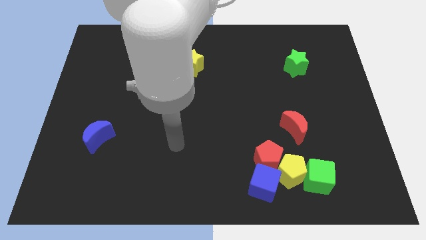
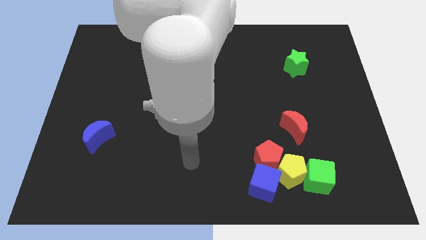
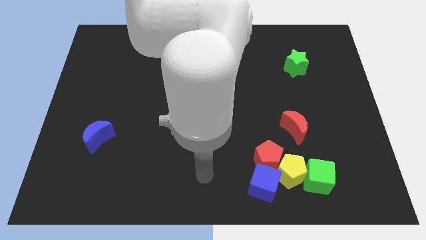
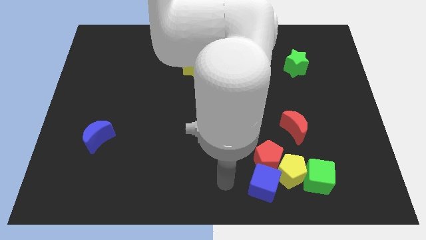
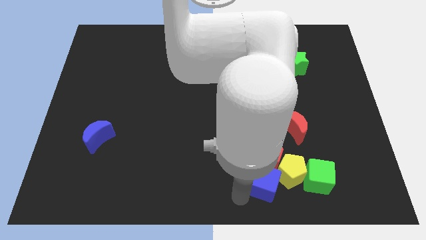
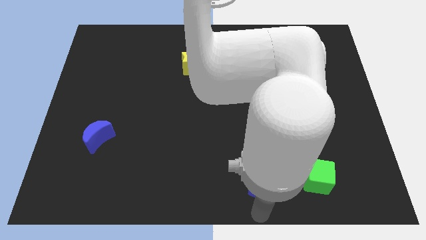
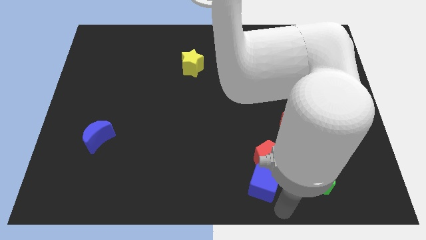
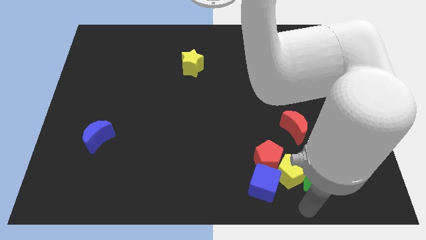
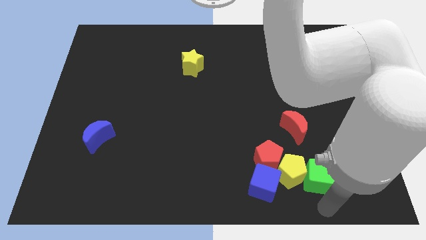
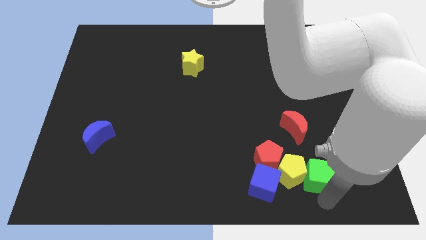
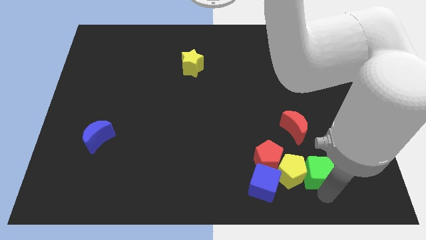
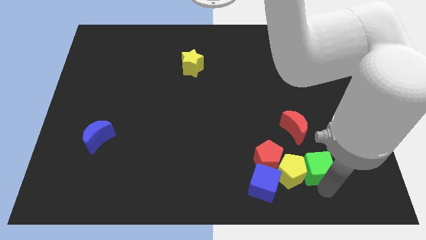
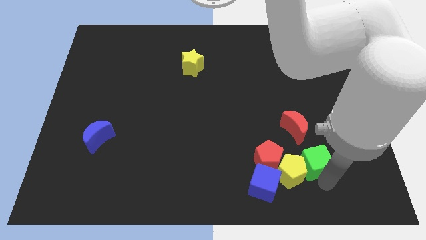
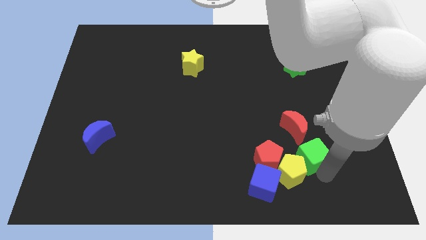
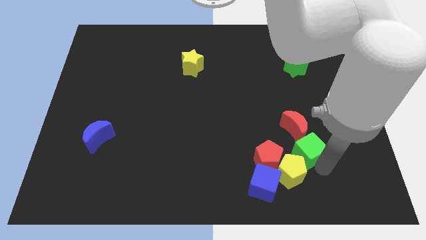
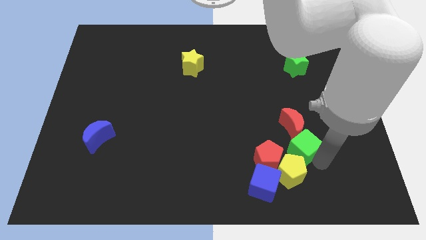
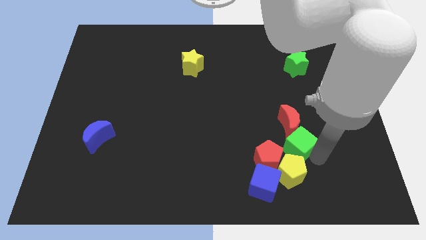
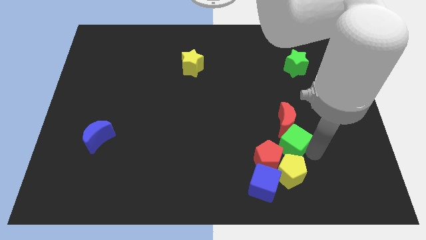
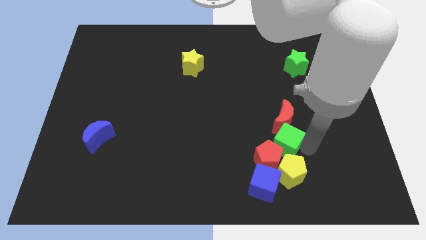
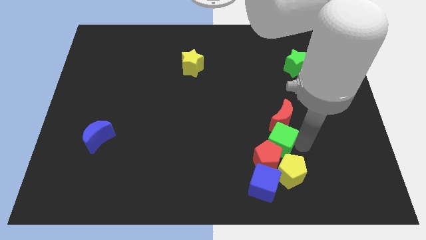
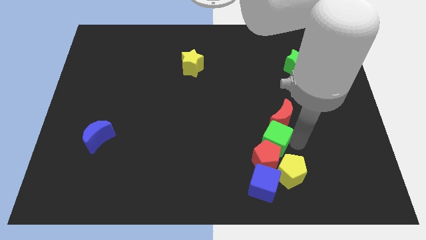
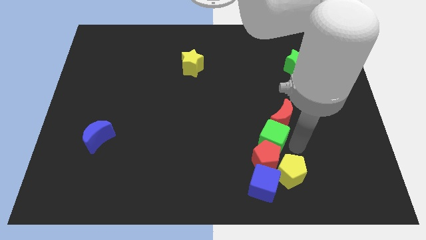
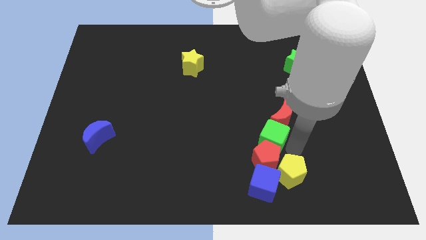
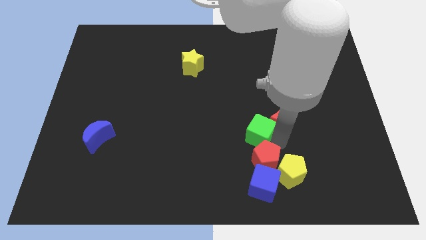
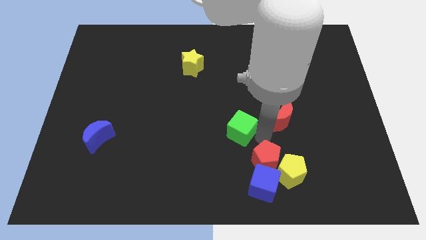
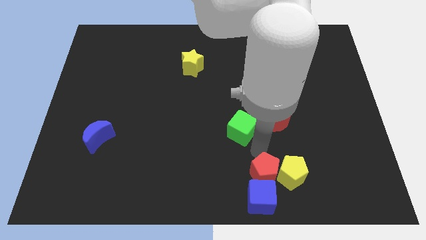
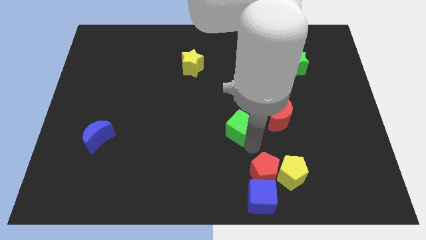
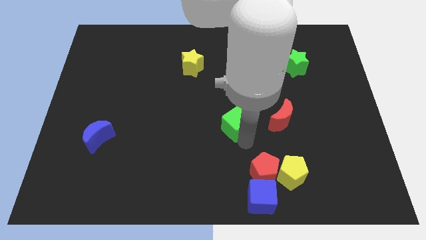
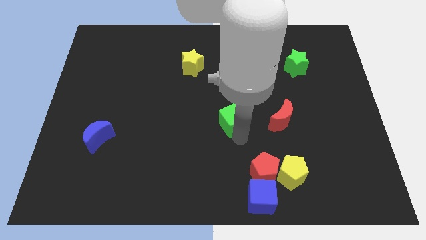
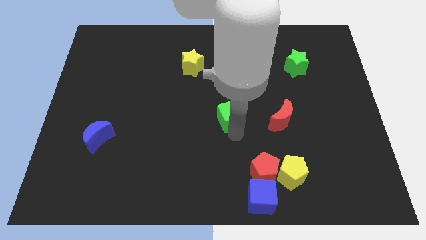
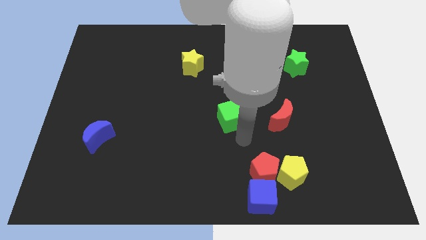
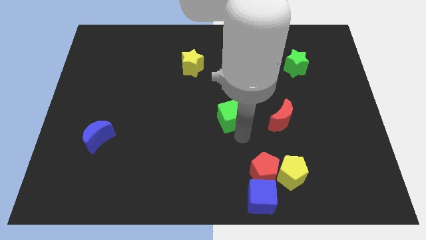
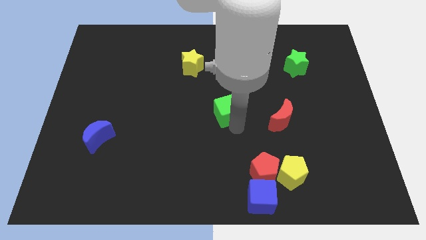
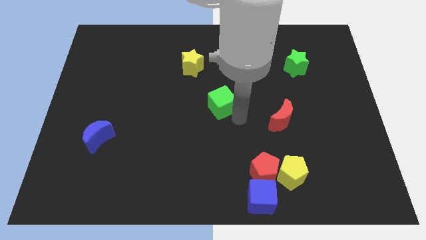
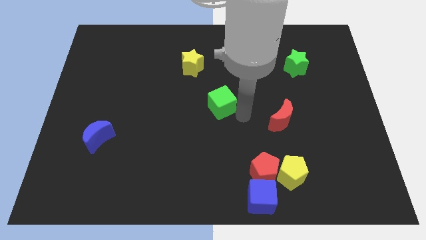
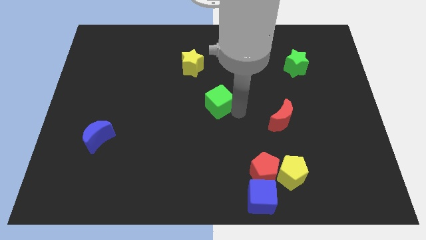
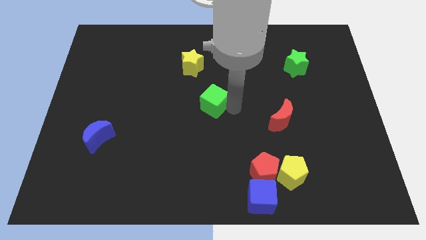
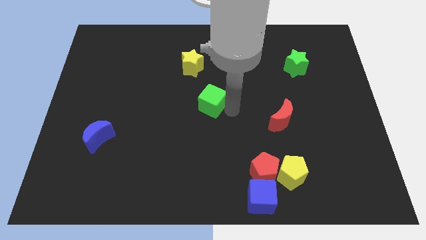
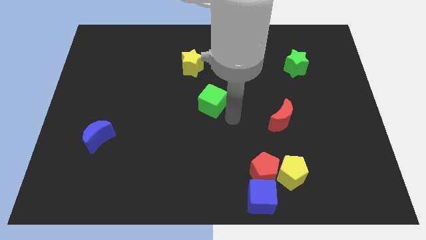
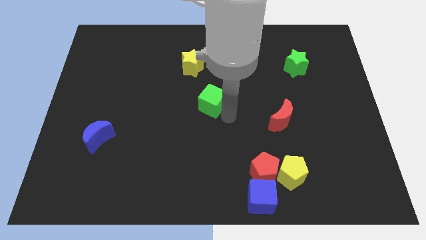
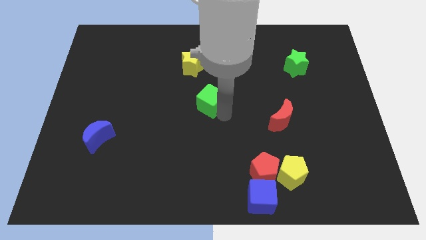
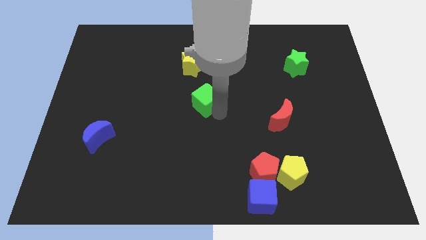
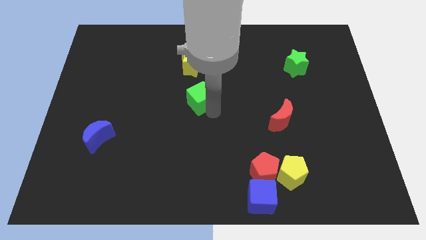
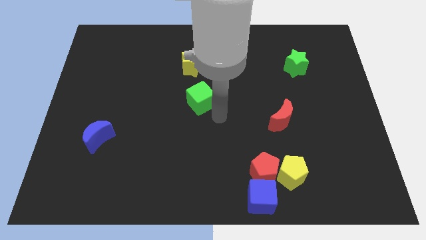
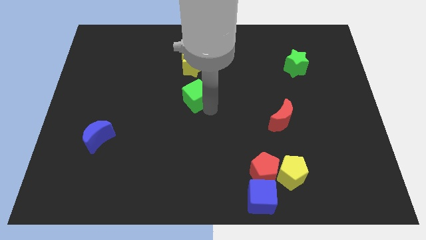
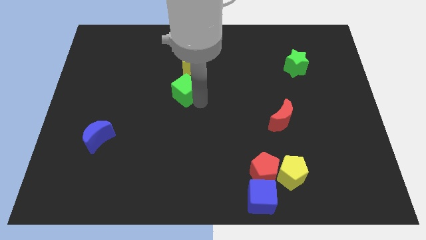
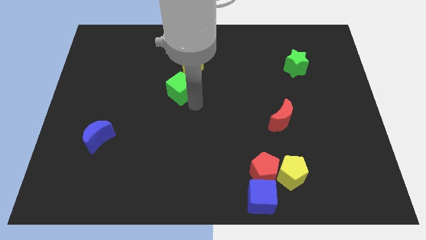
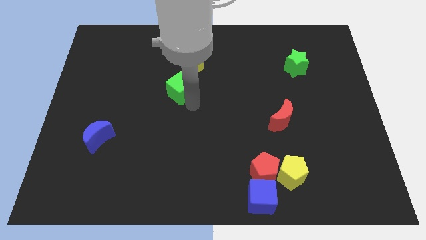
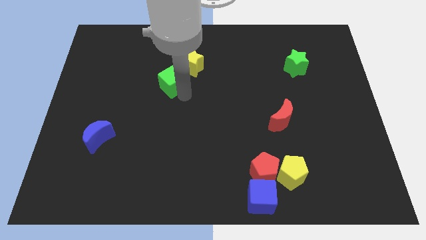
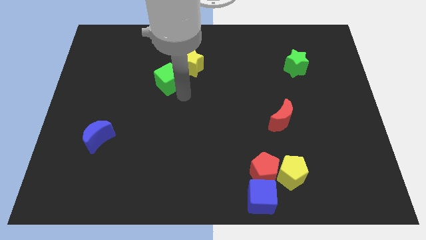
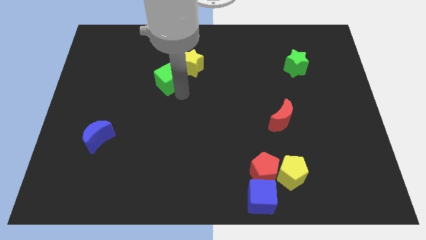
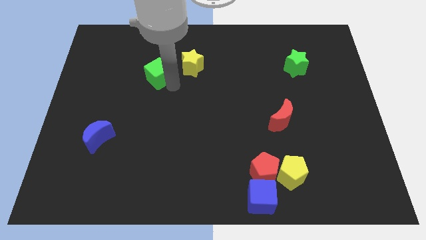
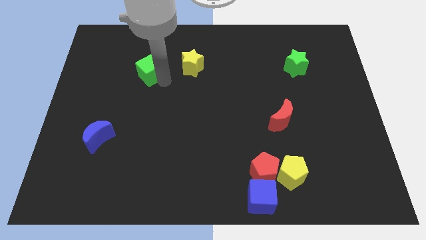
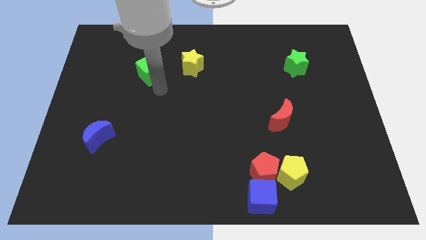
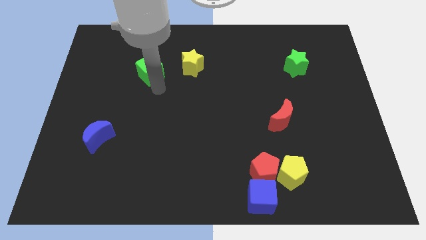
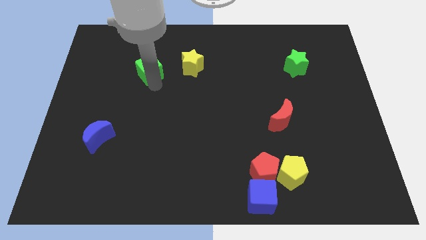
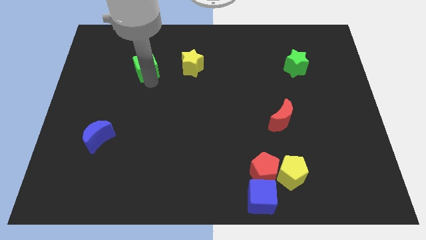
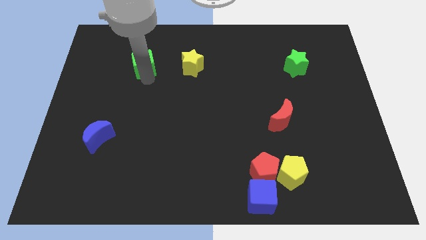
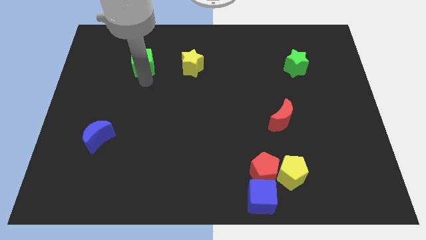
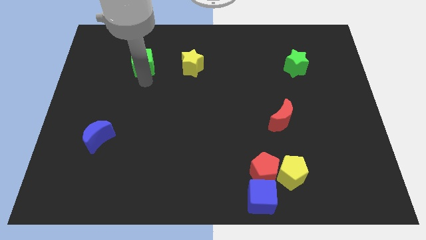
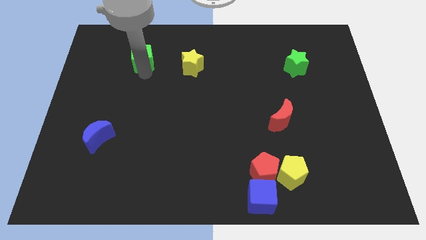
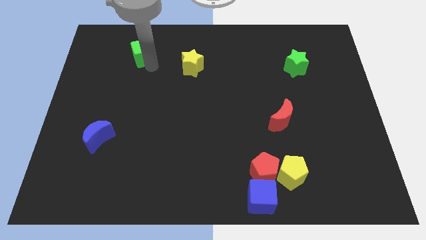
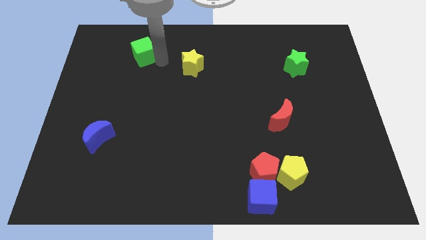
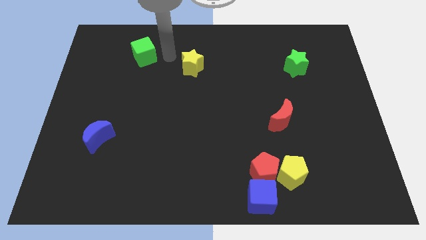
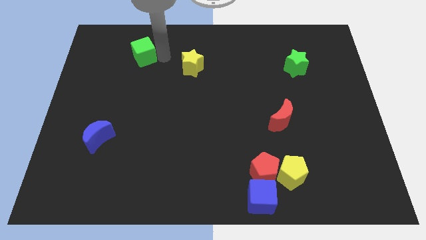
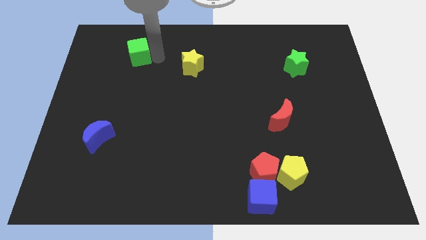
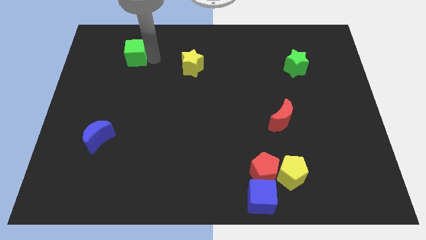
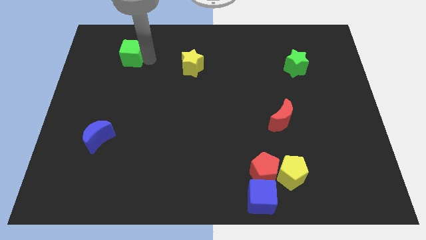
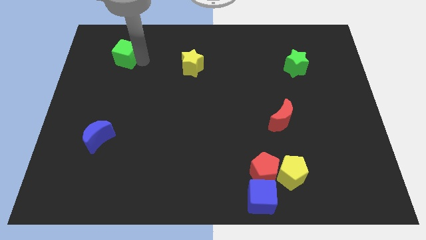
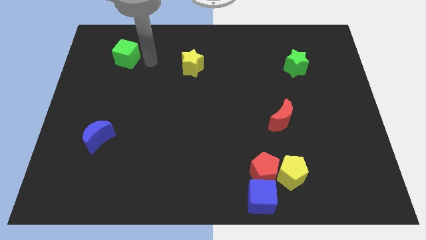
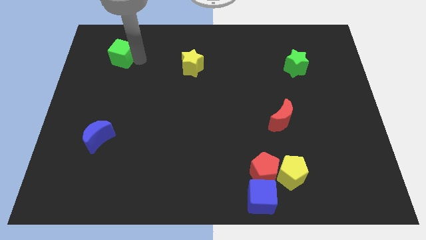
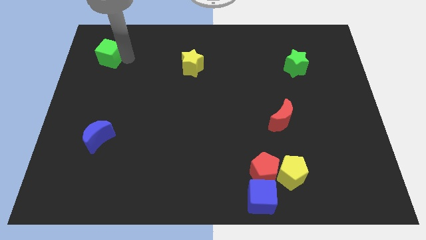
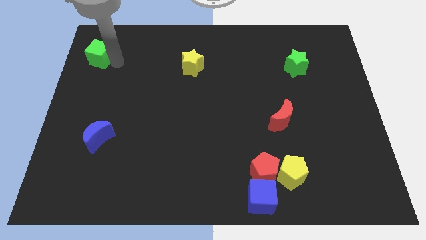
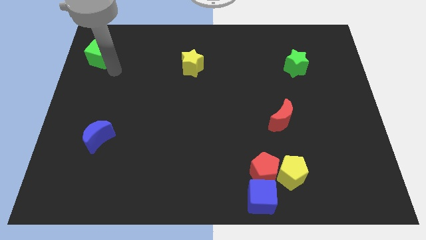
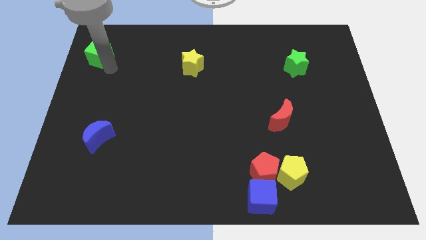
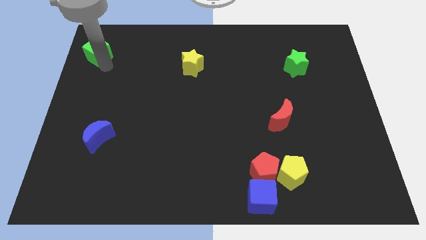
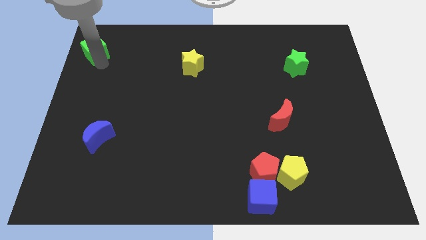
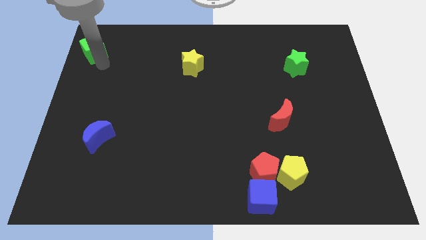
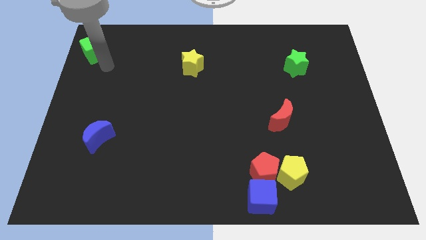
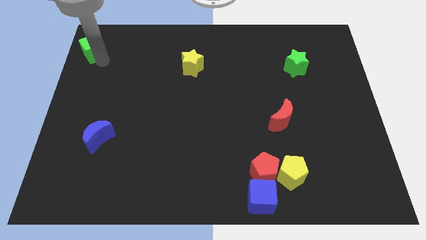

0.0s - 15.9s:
push the green cube to the top left of the board
